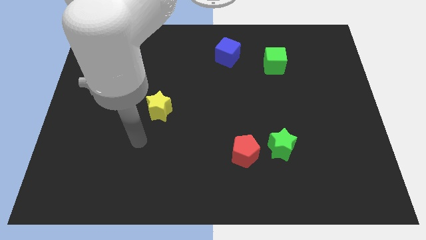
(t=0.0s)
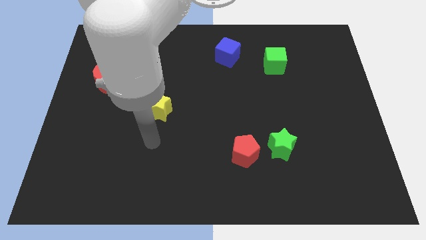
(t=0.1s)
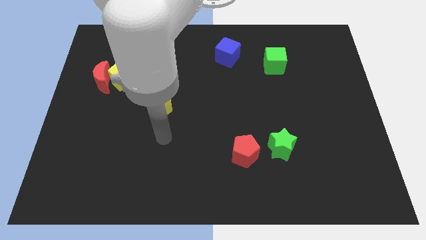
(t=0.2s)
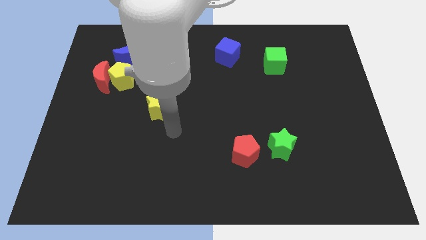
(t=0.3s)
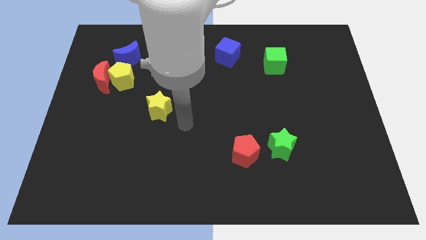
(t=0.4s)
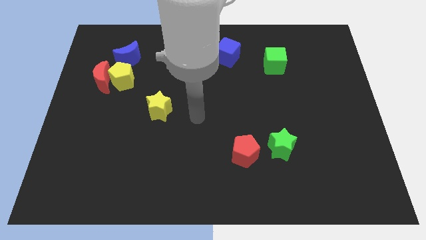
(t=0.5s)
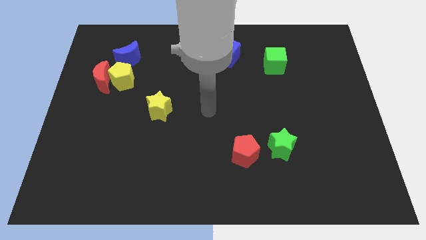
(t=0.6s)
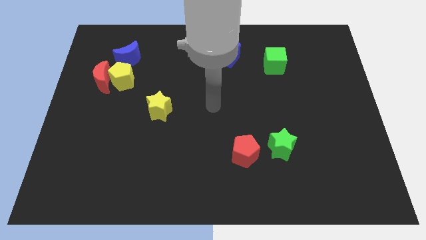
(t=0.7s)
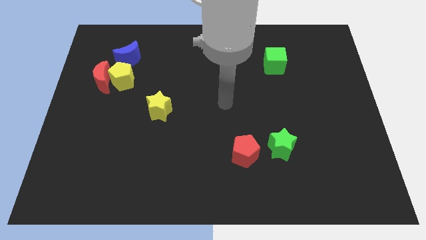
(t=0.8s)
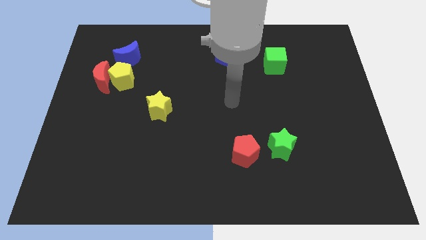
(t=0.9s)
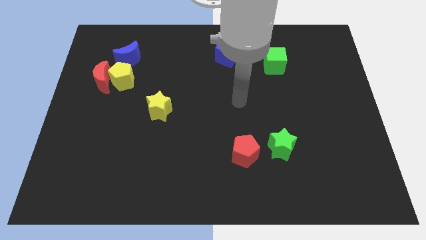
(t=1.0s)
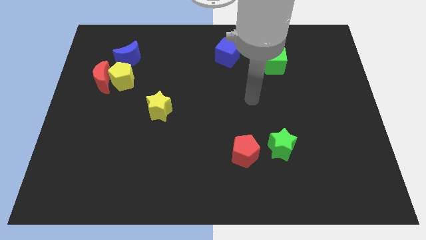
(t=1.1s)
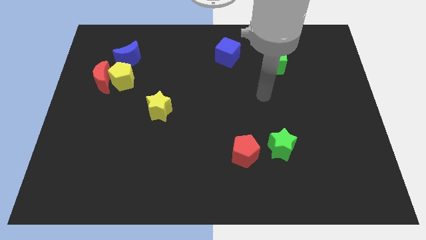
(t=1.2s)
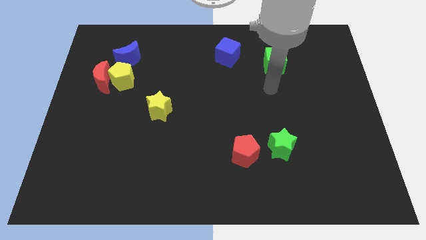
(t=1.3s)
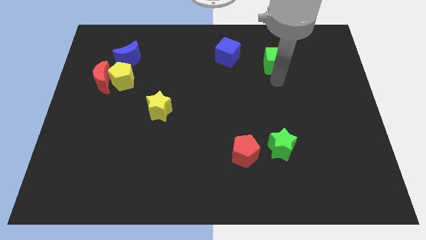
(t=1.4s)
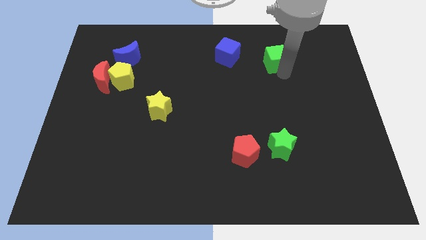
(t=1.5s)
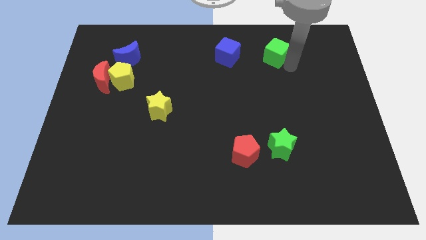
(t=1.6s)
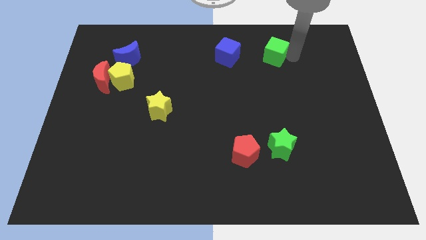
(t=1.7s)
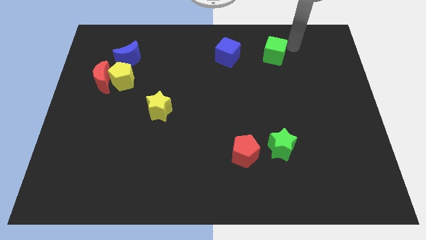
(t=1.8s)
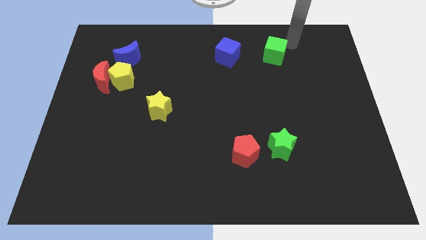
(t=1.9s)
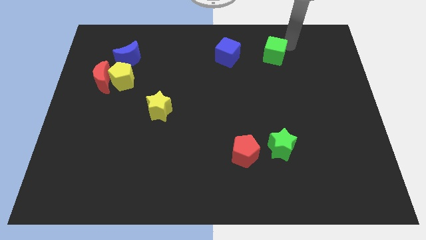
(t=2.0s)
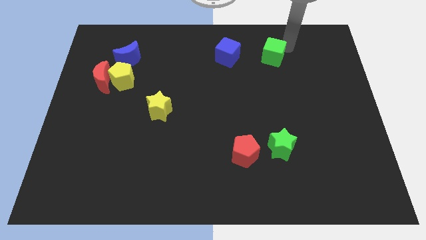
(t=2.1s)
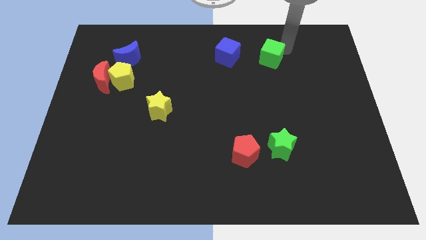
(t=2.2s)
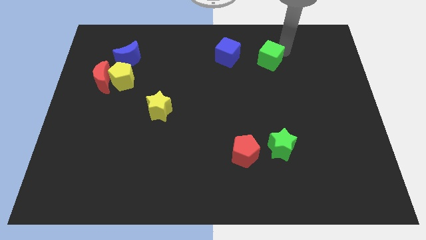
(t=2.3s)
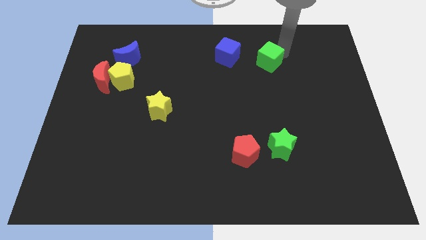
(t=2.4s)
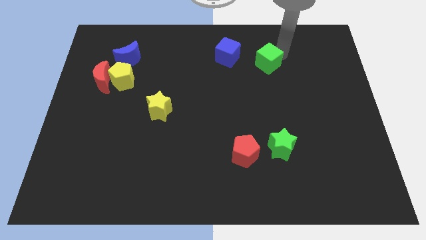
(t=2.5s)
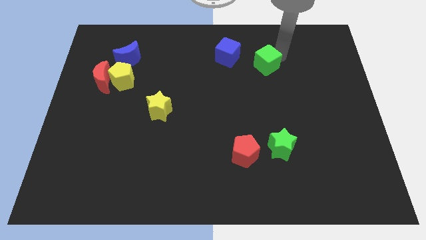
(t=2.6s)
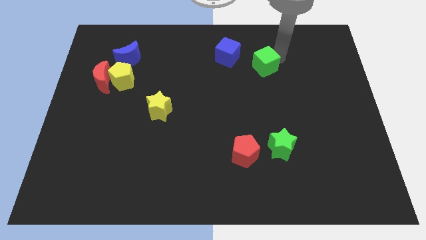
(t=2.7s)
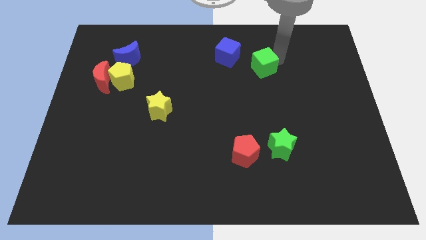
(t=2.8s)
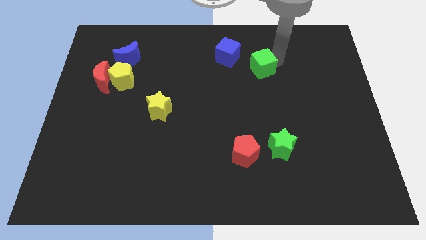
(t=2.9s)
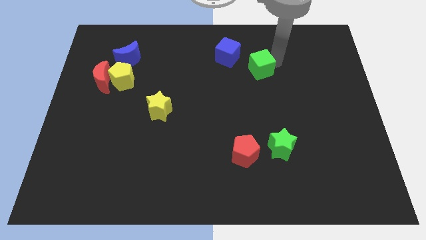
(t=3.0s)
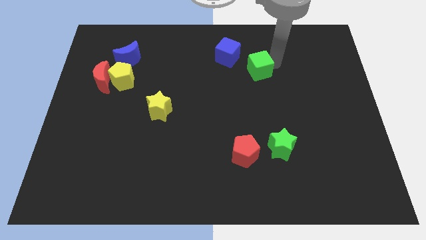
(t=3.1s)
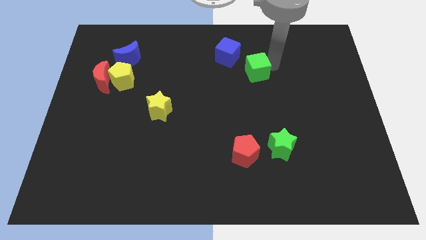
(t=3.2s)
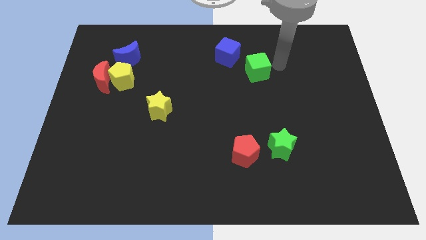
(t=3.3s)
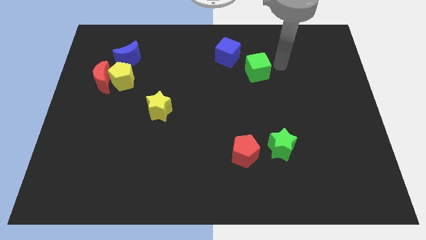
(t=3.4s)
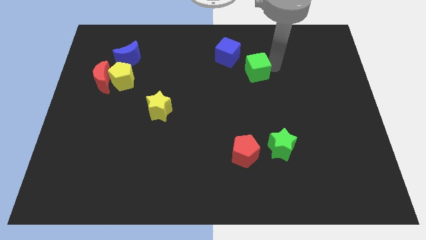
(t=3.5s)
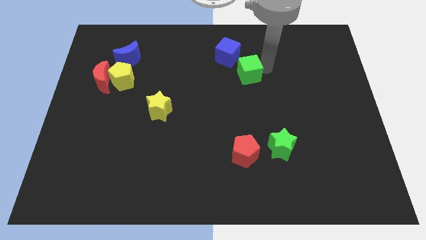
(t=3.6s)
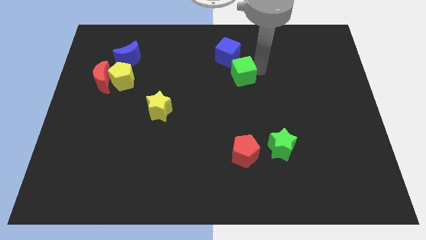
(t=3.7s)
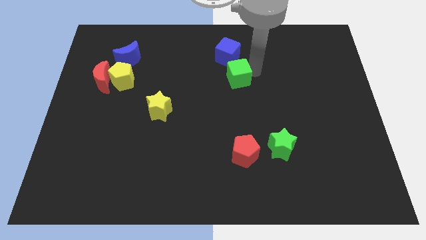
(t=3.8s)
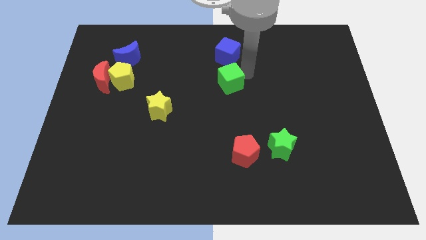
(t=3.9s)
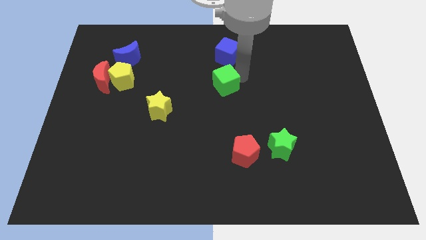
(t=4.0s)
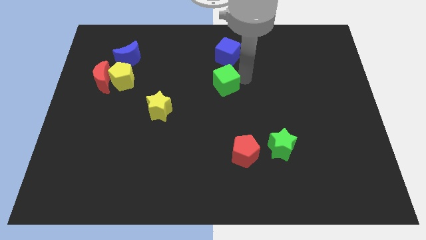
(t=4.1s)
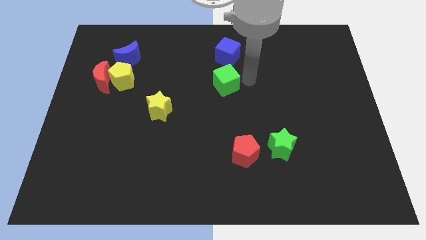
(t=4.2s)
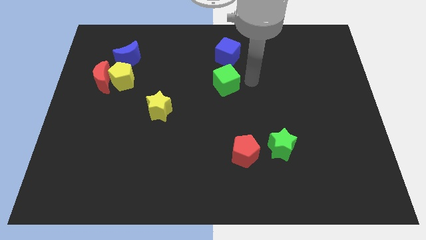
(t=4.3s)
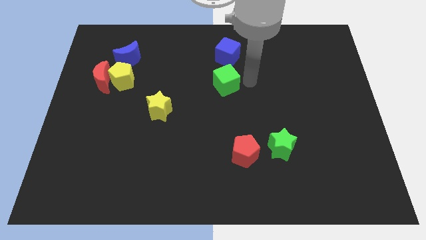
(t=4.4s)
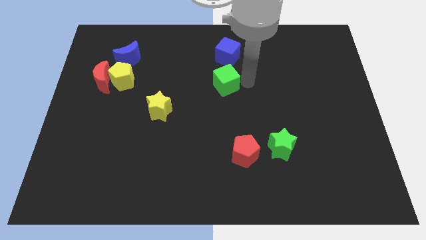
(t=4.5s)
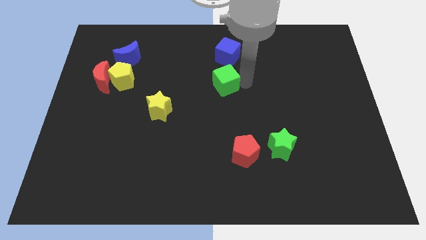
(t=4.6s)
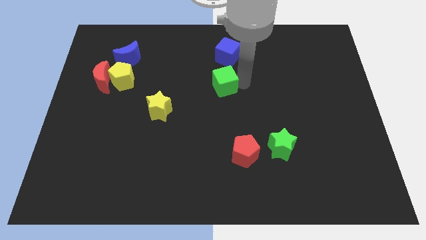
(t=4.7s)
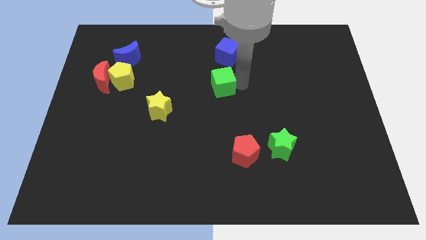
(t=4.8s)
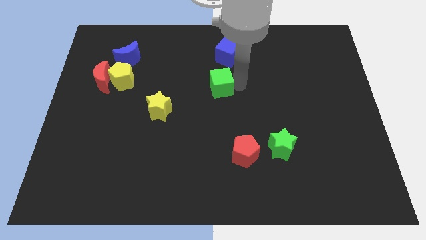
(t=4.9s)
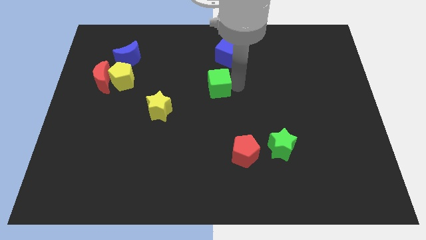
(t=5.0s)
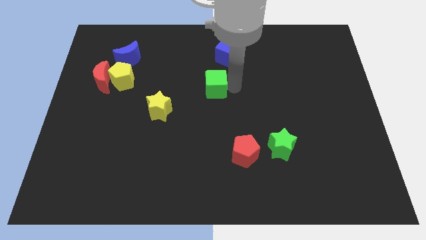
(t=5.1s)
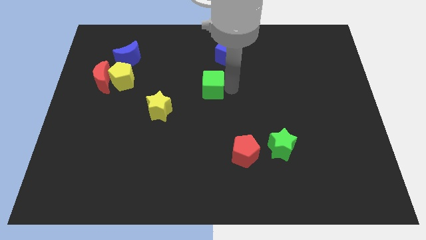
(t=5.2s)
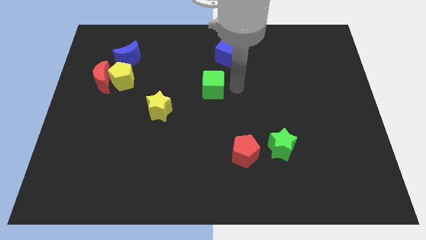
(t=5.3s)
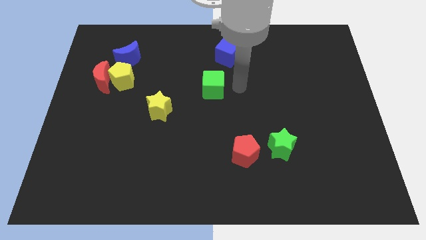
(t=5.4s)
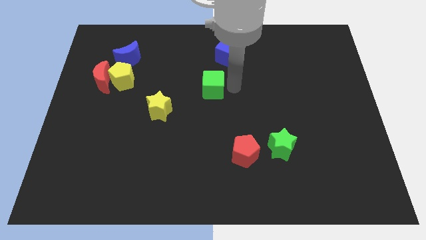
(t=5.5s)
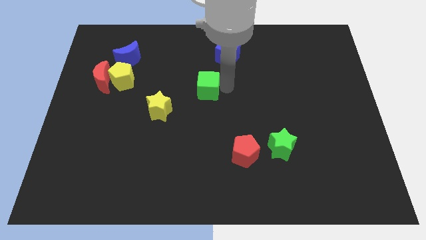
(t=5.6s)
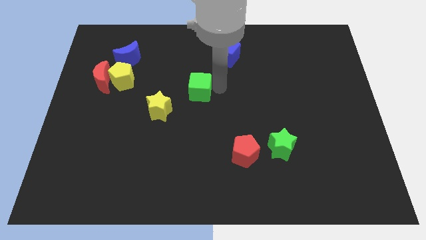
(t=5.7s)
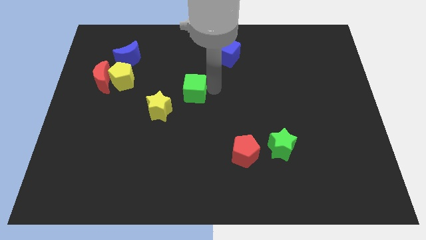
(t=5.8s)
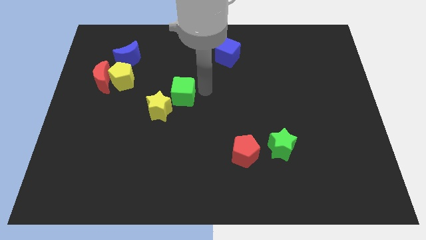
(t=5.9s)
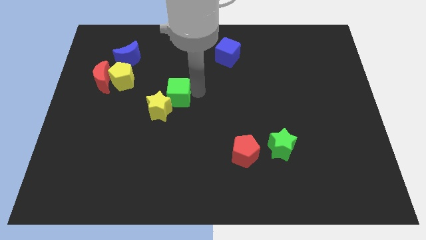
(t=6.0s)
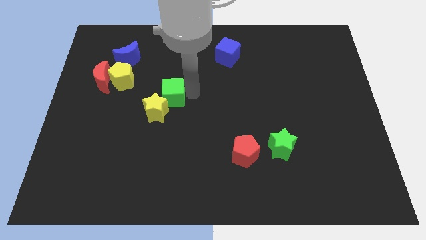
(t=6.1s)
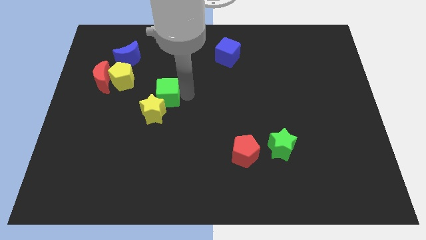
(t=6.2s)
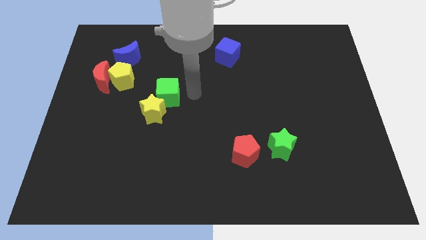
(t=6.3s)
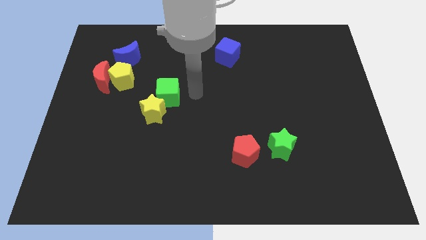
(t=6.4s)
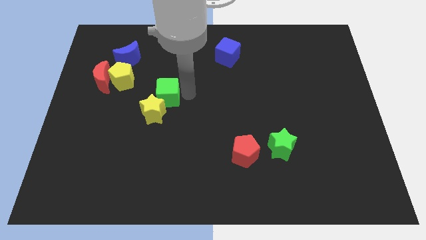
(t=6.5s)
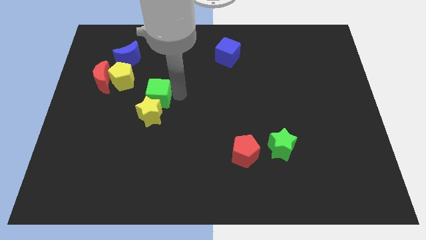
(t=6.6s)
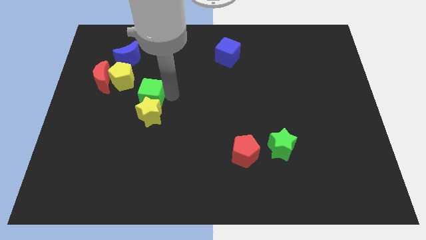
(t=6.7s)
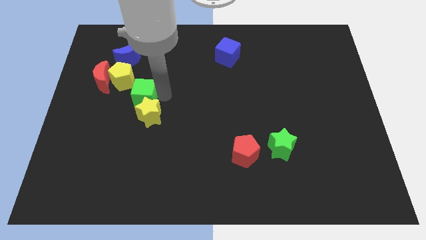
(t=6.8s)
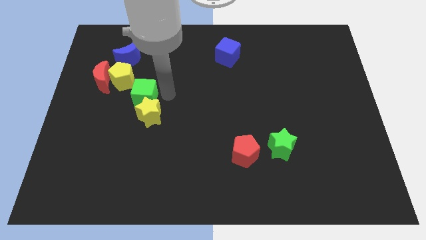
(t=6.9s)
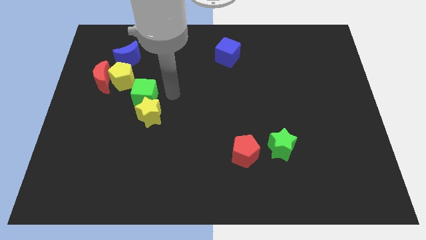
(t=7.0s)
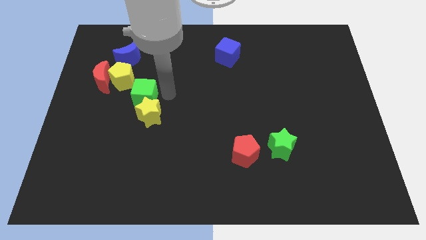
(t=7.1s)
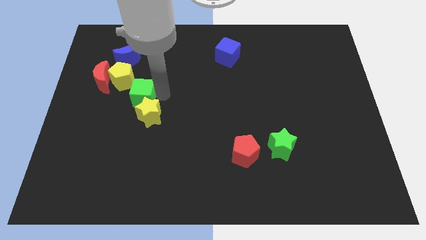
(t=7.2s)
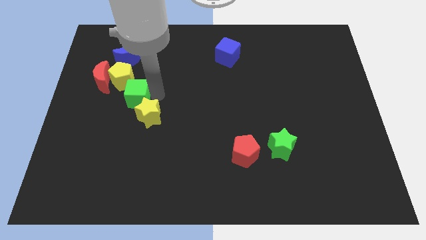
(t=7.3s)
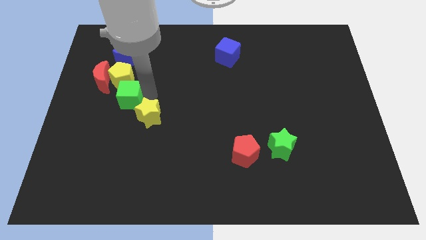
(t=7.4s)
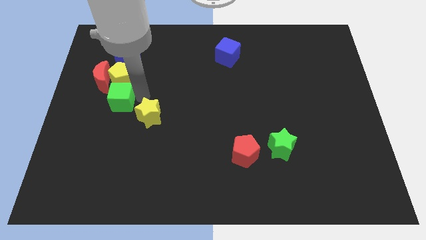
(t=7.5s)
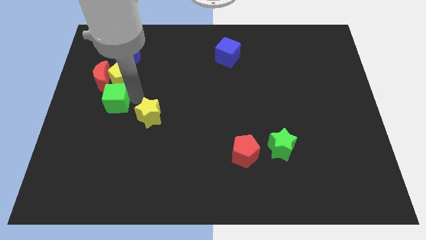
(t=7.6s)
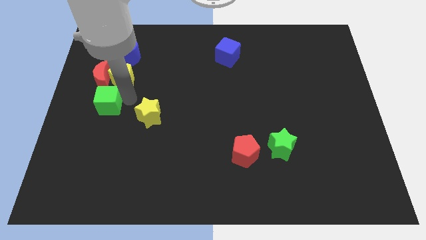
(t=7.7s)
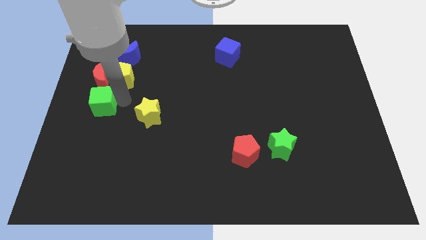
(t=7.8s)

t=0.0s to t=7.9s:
move the green cube to the left side of the board
